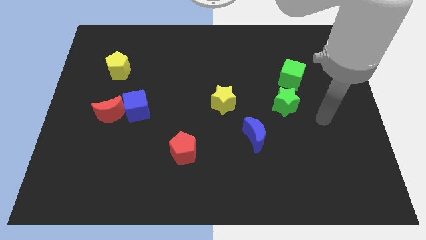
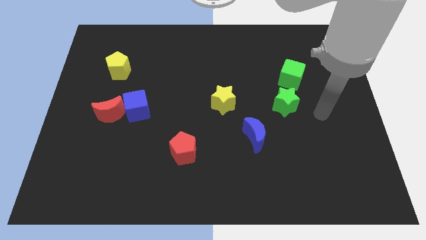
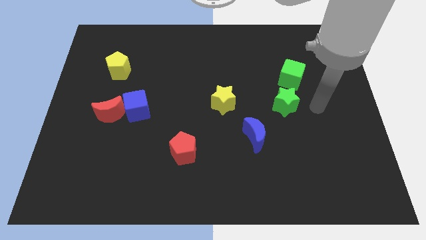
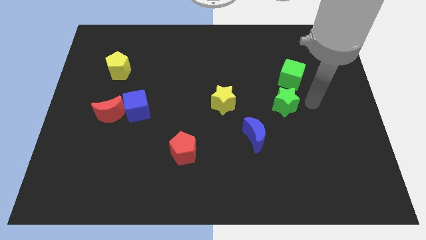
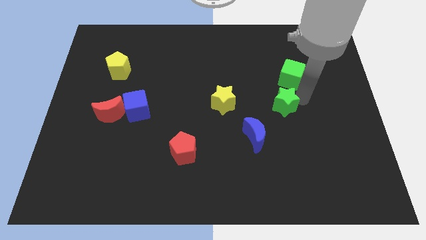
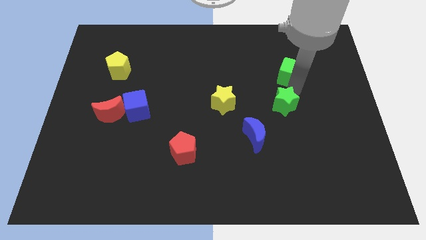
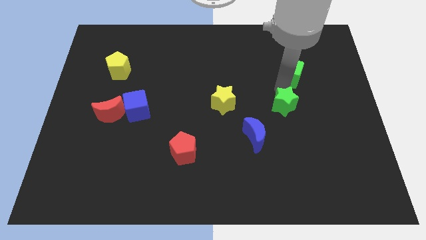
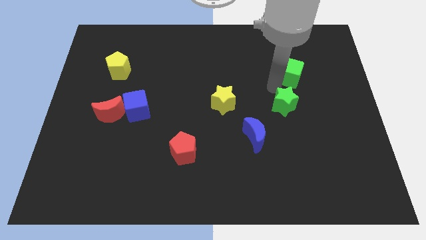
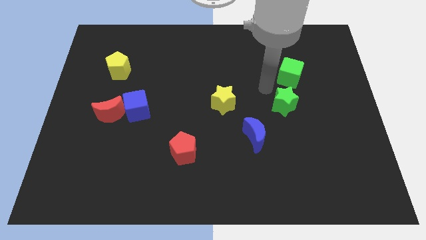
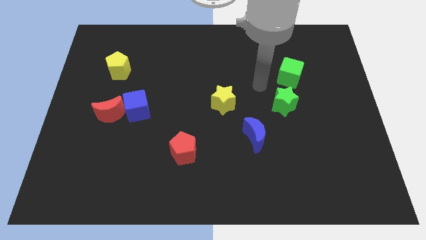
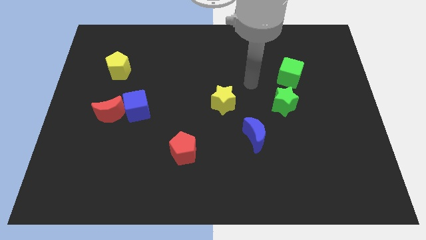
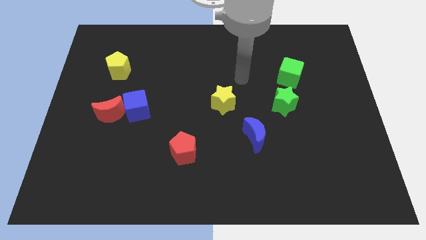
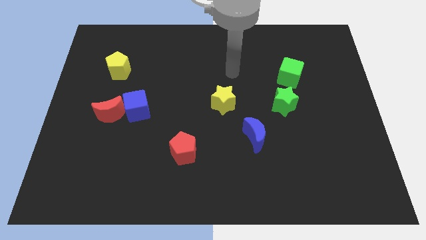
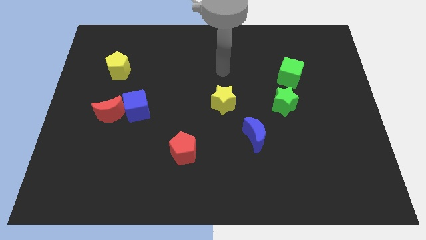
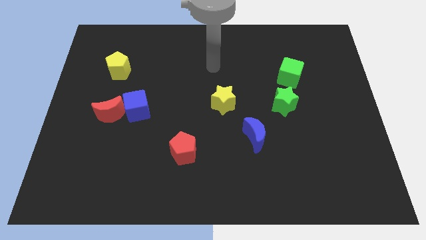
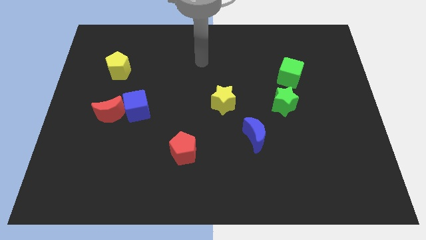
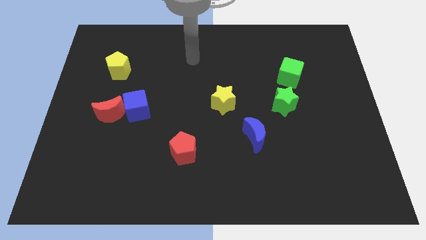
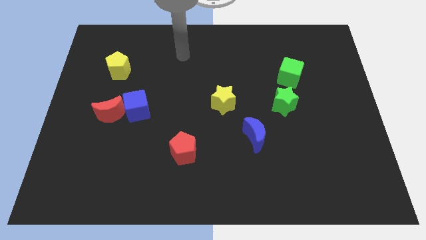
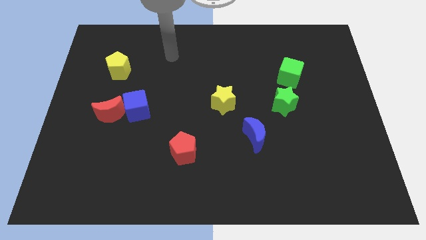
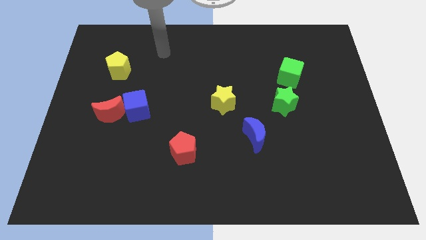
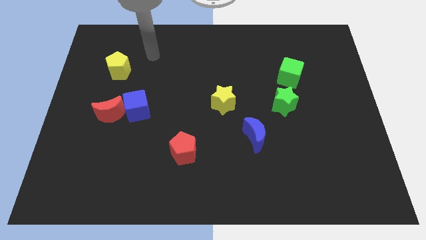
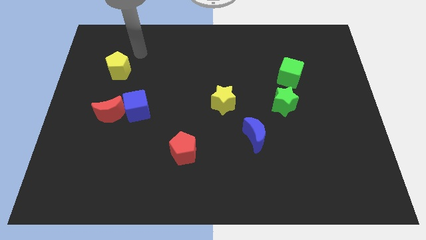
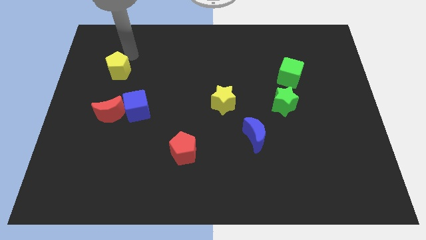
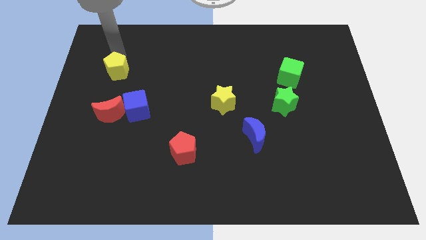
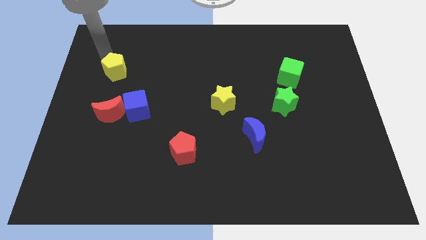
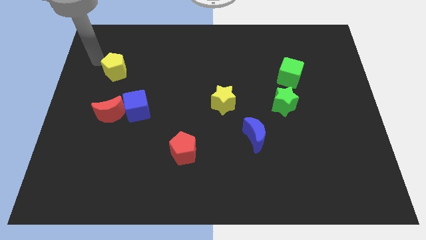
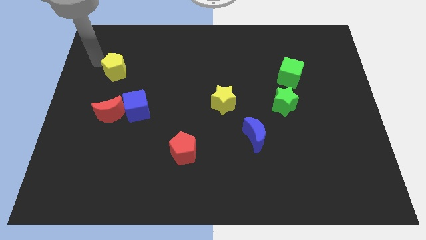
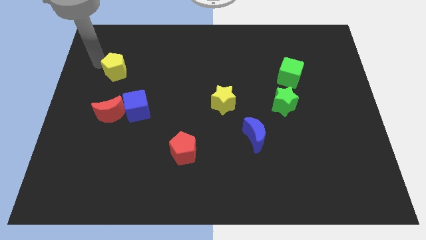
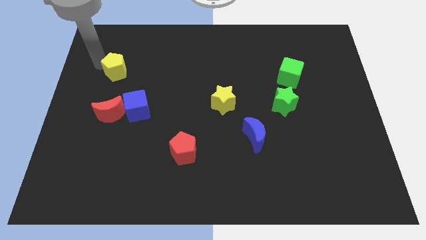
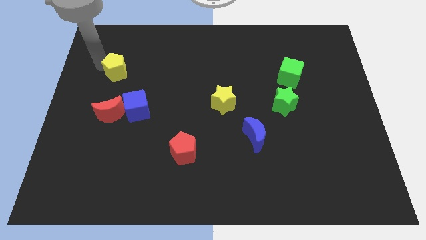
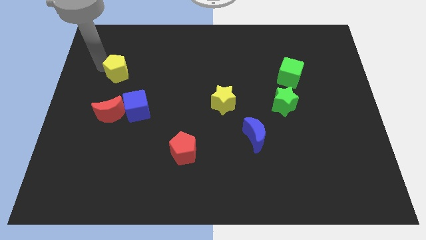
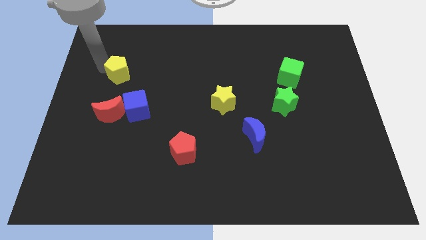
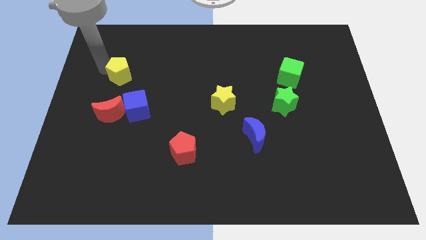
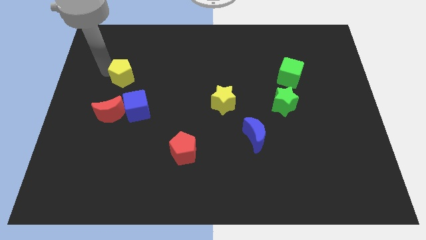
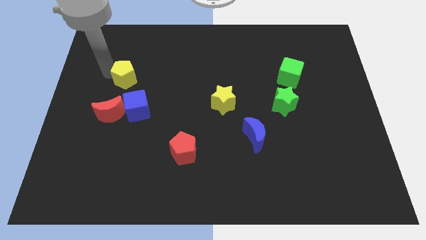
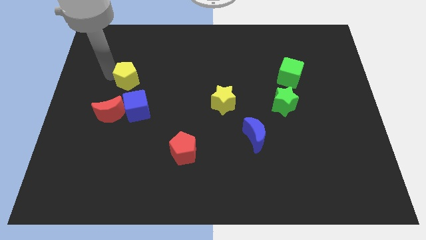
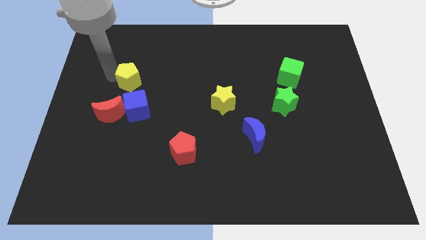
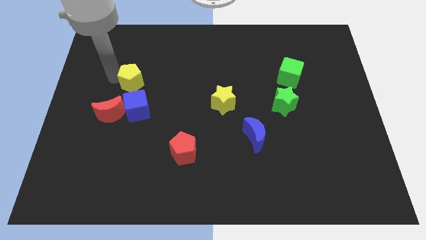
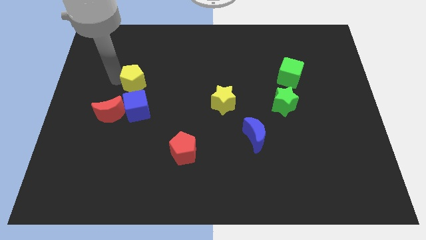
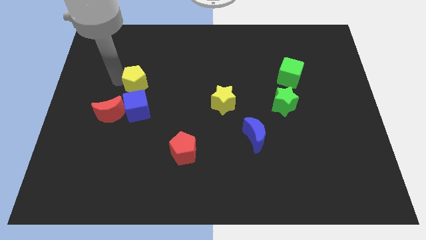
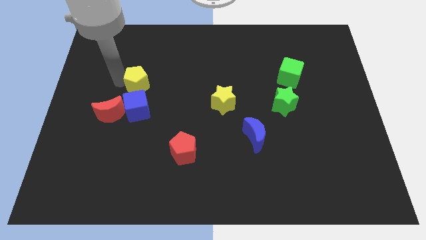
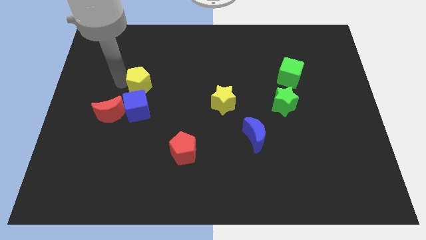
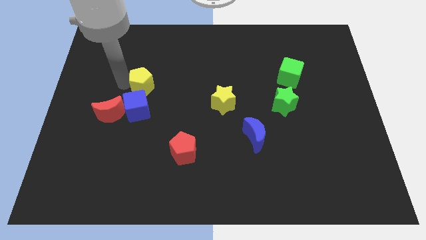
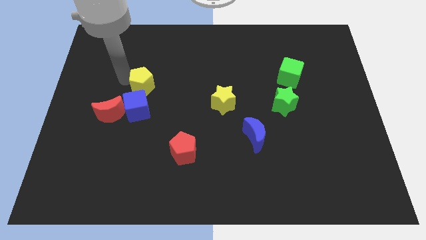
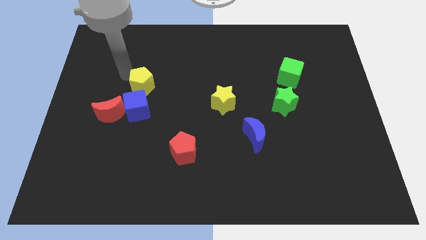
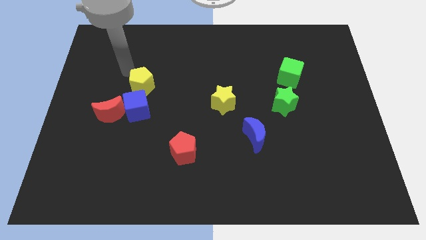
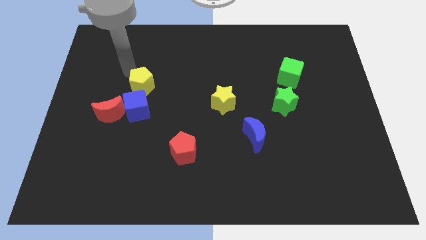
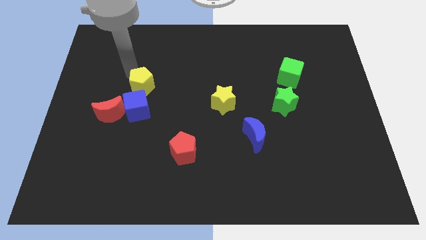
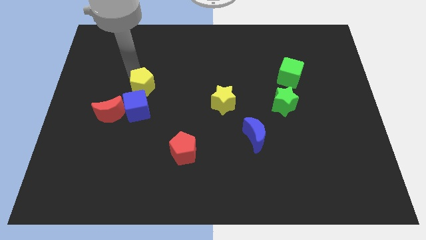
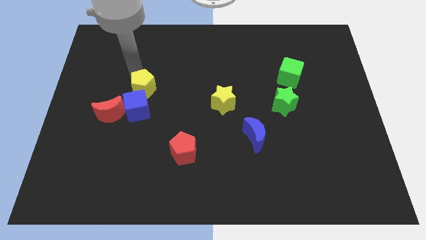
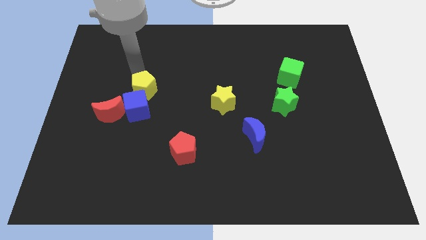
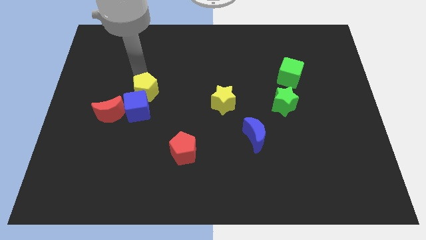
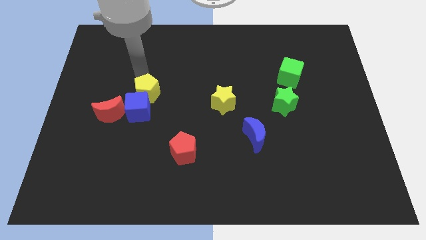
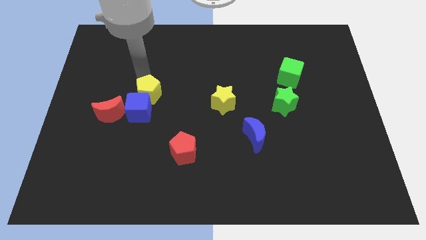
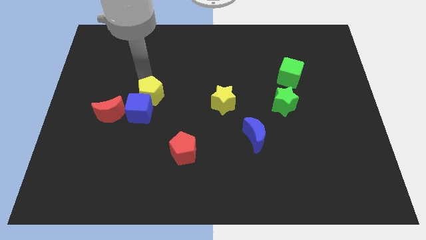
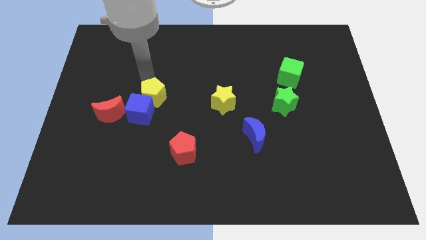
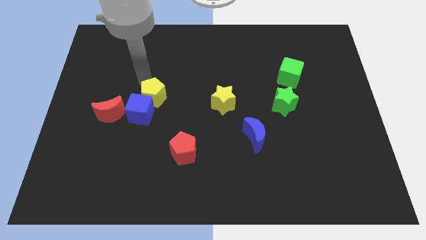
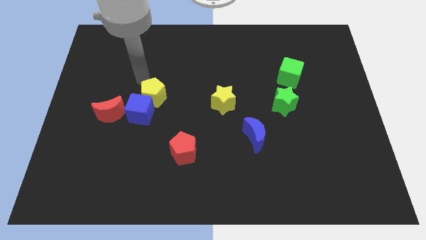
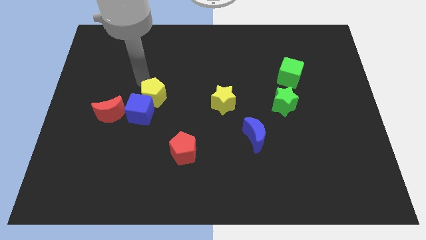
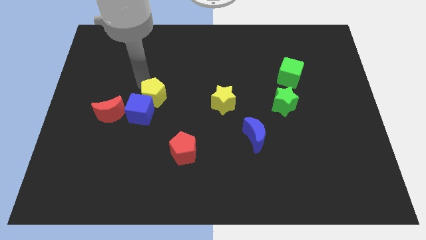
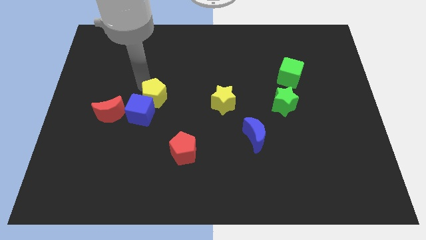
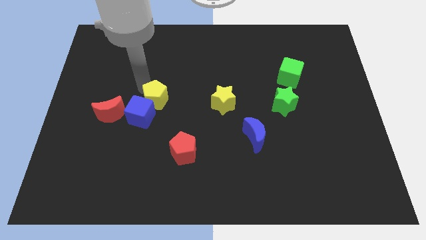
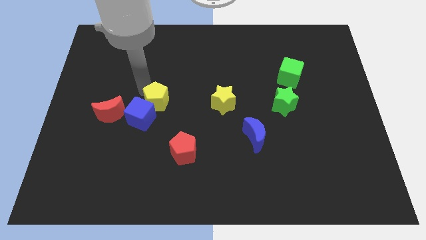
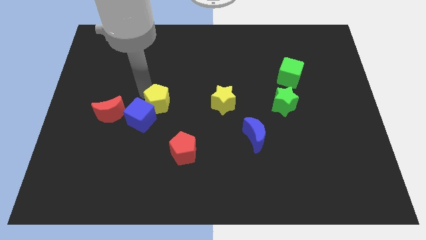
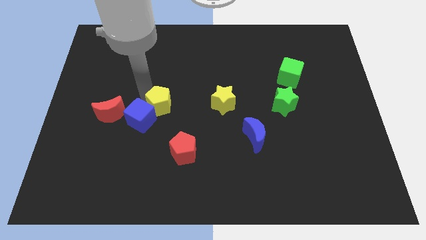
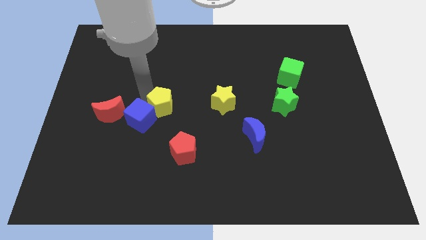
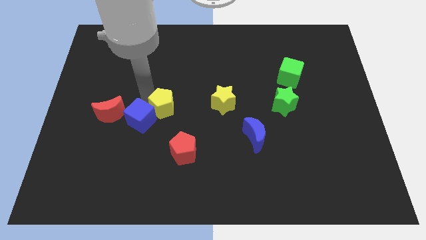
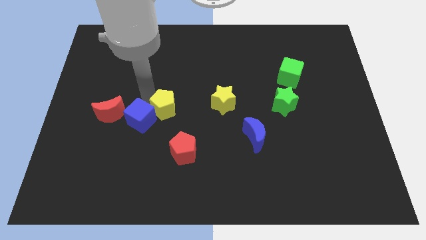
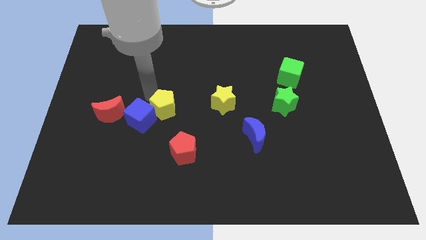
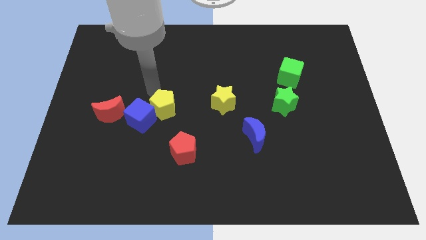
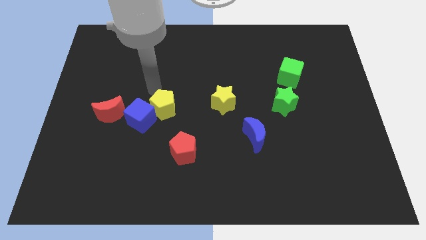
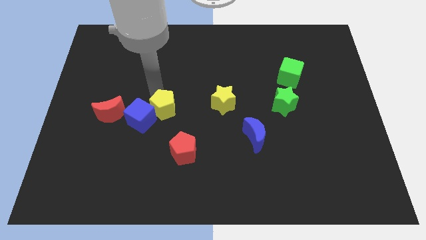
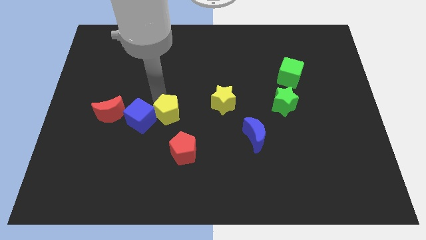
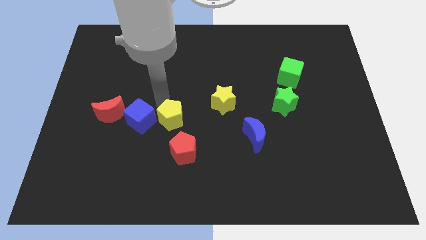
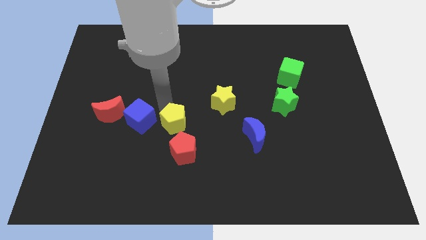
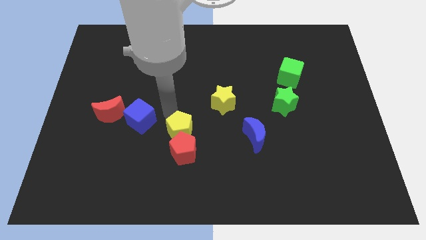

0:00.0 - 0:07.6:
slide the yellow pentagon to the red pentagon

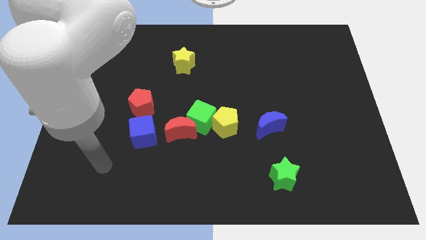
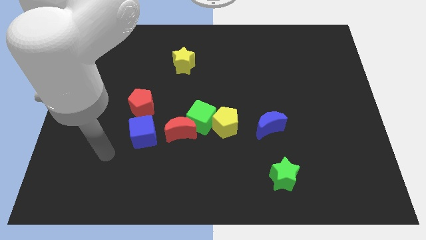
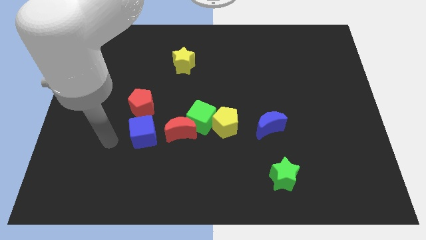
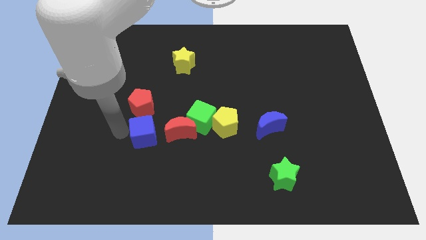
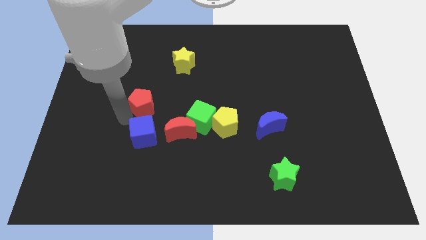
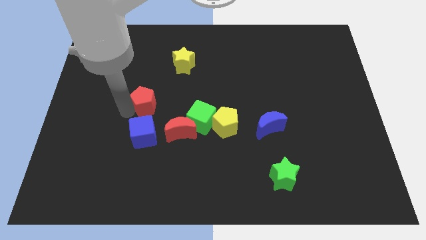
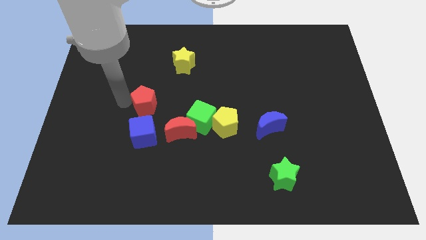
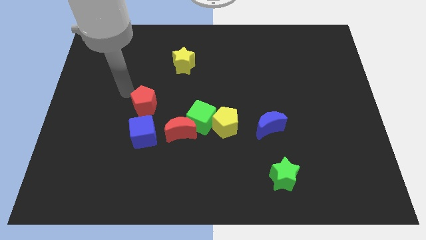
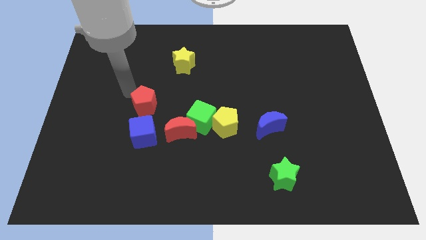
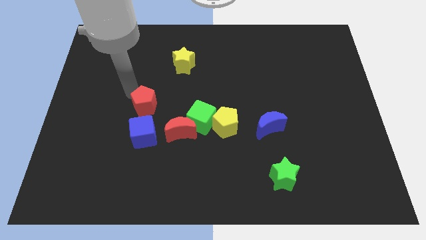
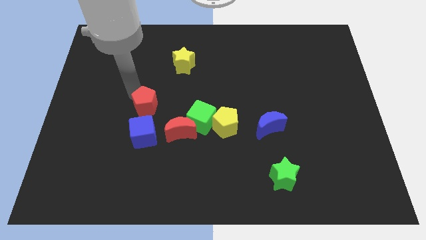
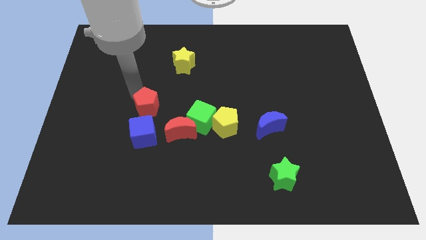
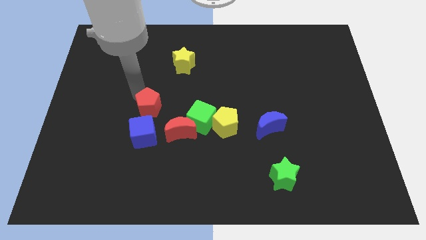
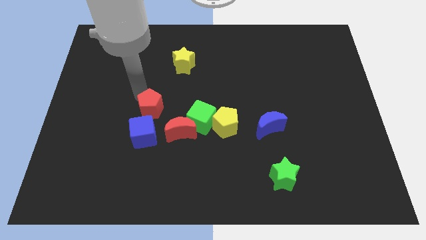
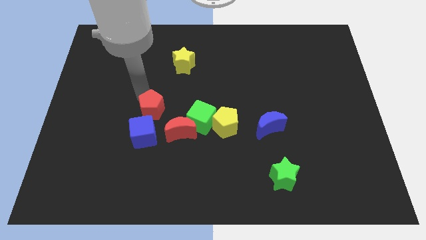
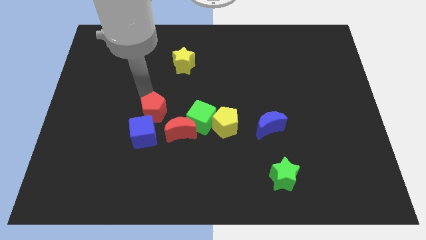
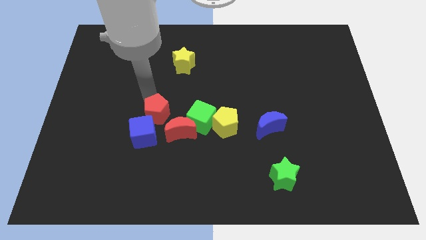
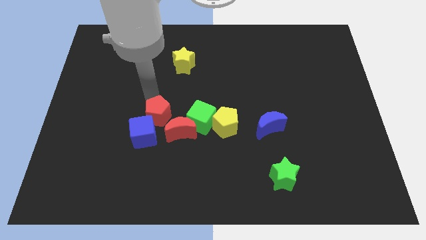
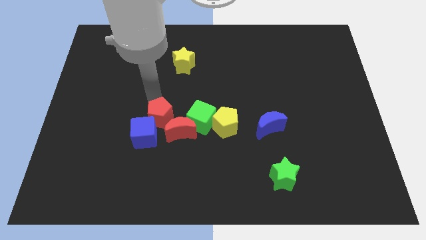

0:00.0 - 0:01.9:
move the red pentagon towards the red moon
